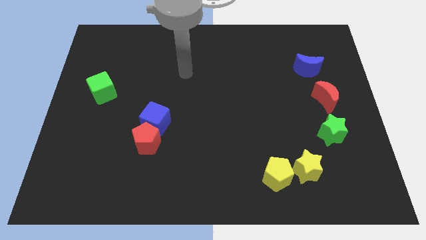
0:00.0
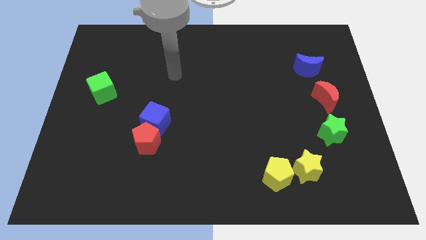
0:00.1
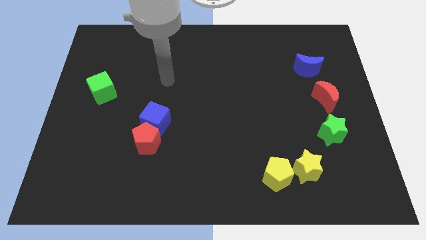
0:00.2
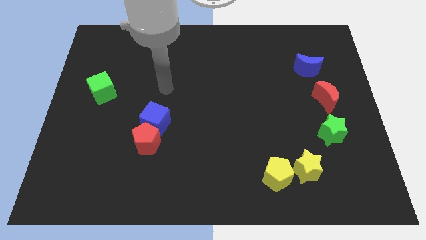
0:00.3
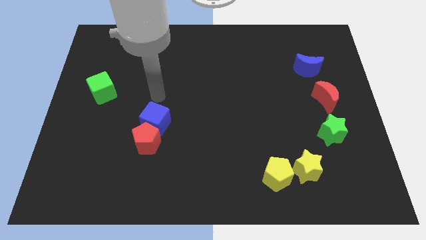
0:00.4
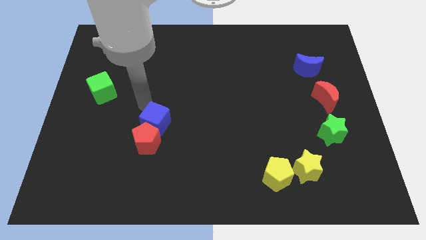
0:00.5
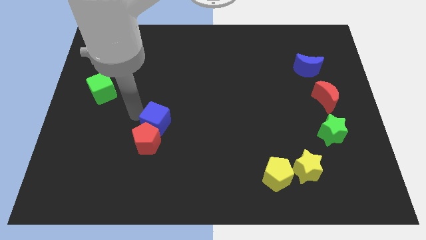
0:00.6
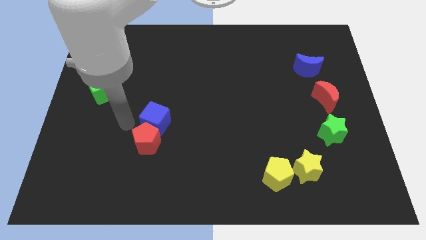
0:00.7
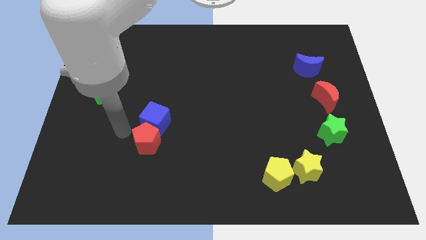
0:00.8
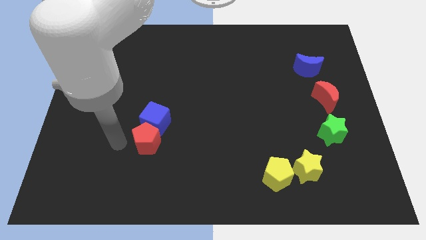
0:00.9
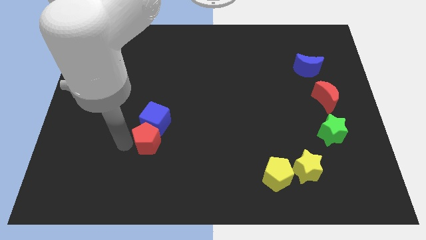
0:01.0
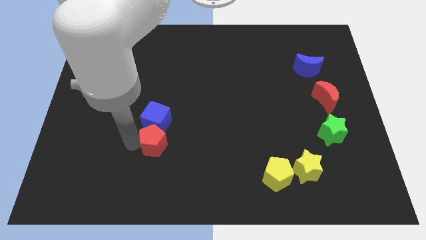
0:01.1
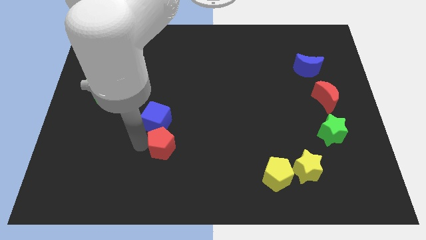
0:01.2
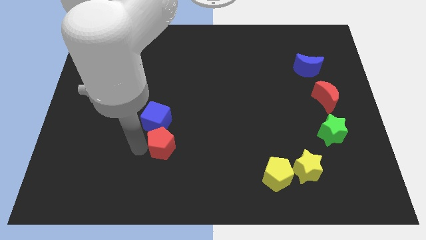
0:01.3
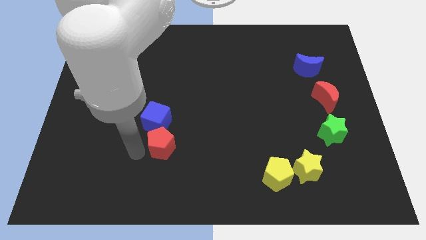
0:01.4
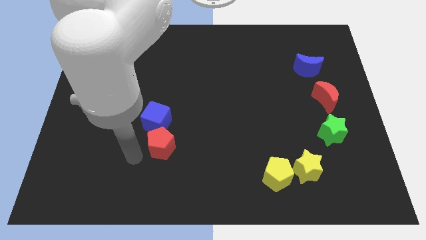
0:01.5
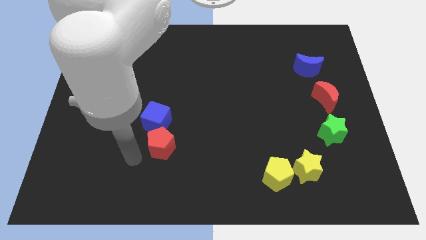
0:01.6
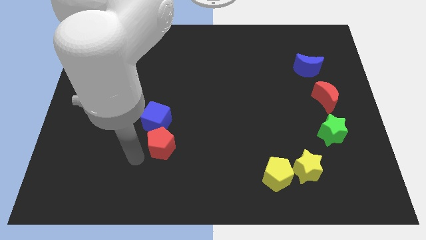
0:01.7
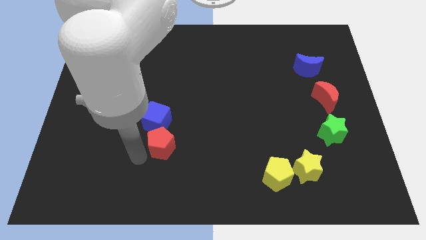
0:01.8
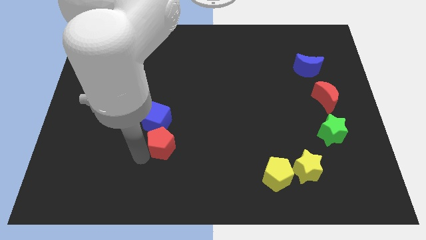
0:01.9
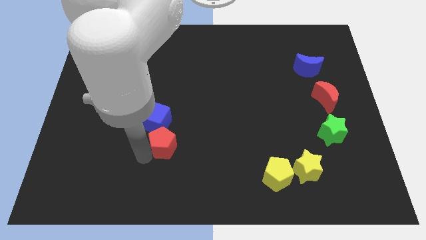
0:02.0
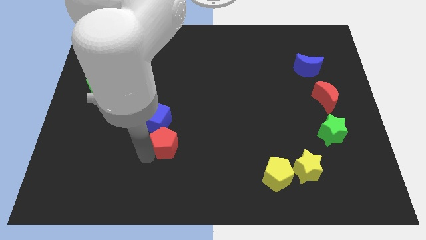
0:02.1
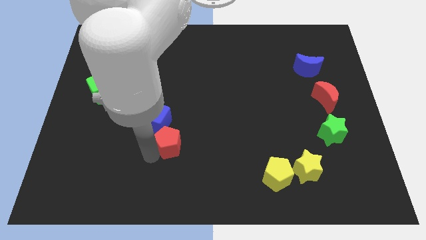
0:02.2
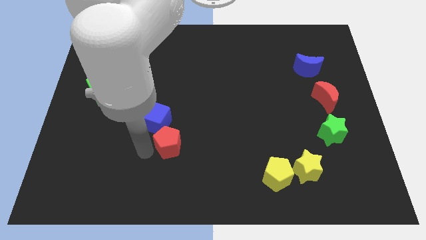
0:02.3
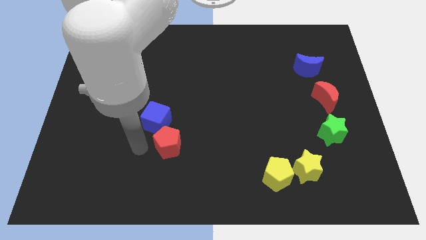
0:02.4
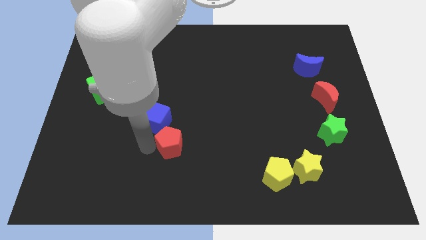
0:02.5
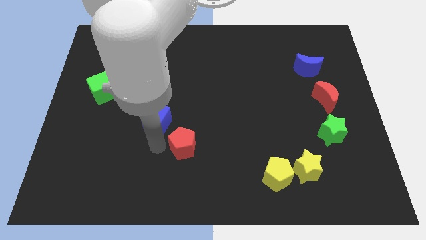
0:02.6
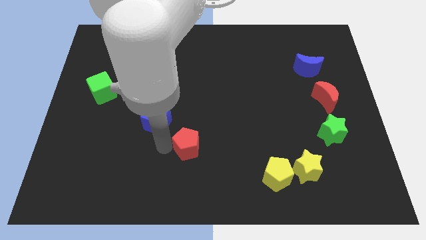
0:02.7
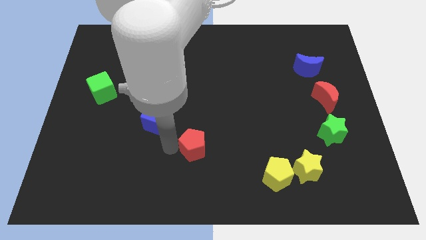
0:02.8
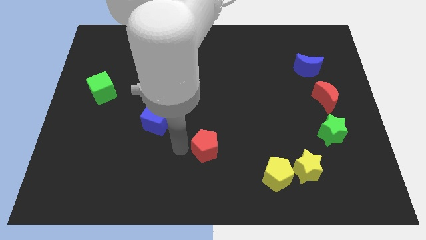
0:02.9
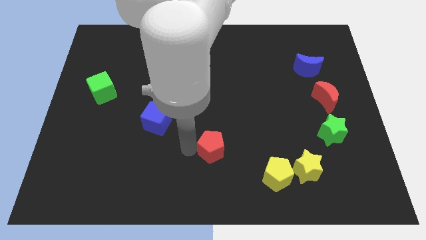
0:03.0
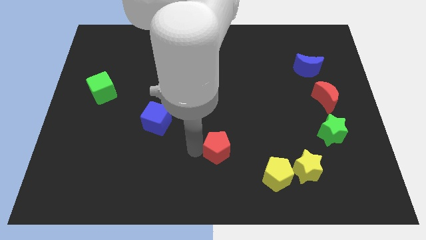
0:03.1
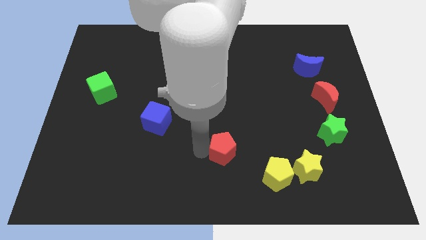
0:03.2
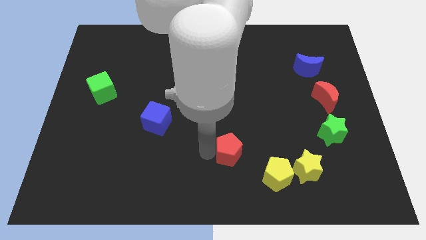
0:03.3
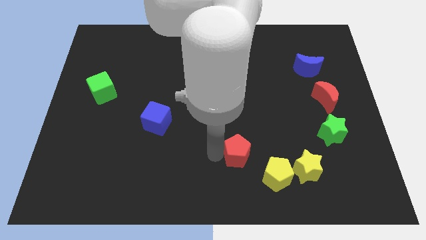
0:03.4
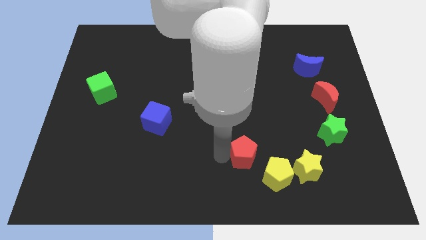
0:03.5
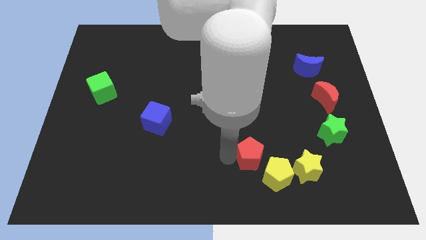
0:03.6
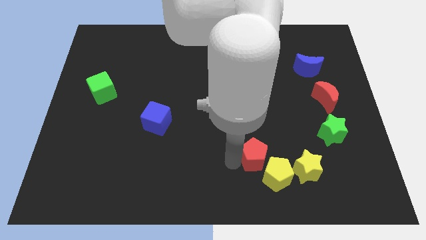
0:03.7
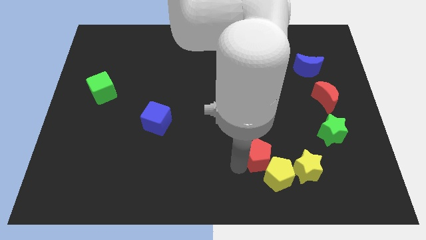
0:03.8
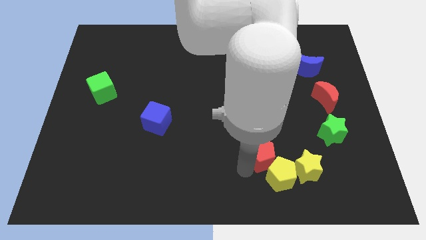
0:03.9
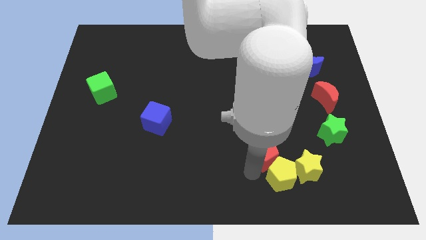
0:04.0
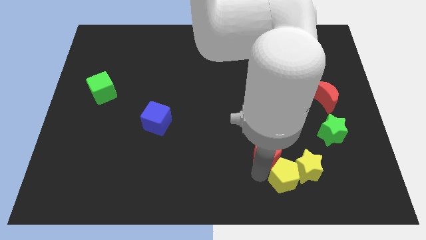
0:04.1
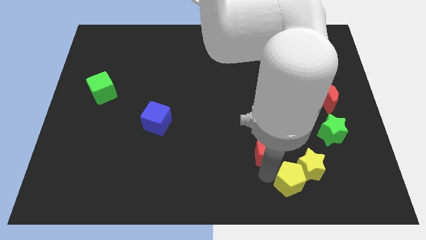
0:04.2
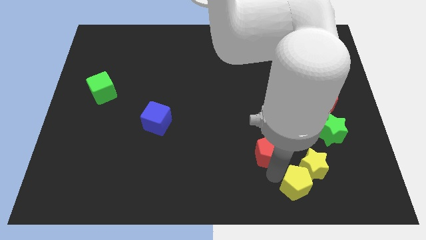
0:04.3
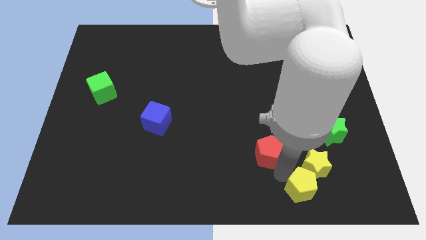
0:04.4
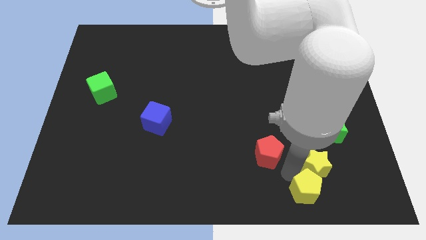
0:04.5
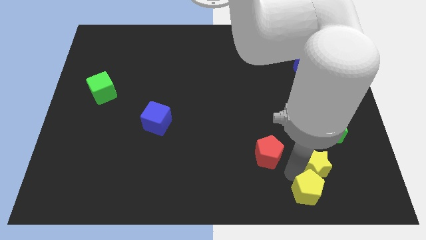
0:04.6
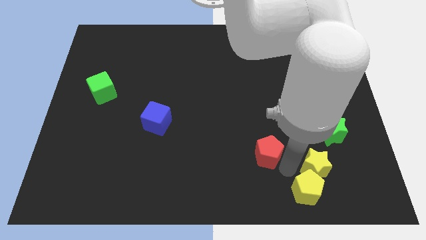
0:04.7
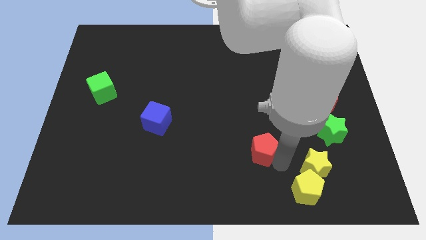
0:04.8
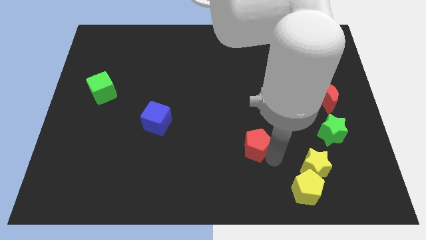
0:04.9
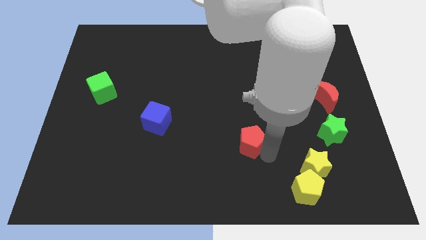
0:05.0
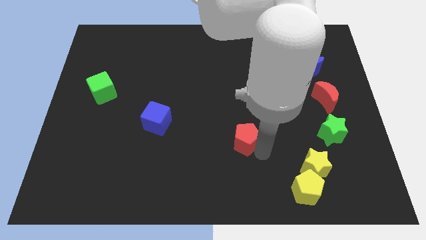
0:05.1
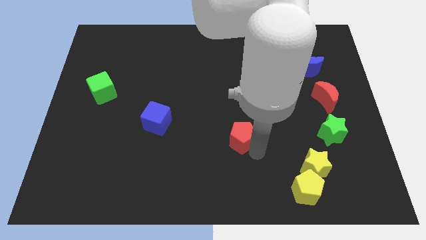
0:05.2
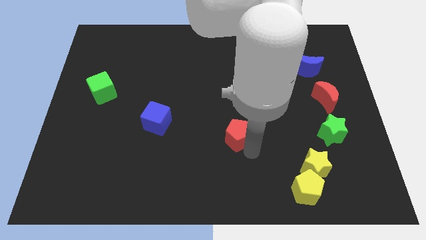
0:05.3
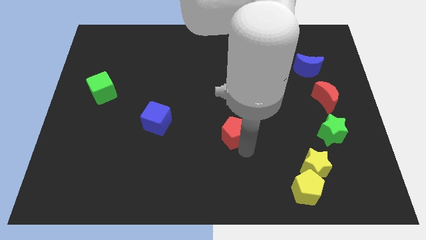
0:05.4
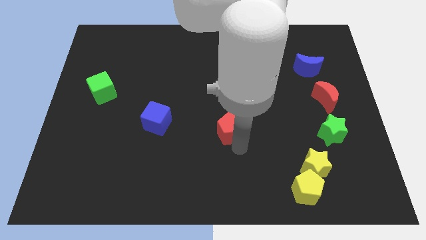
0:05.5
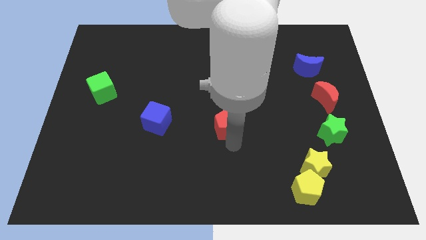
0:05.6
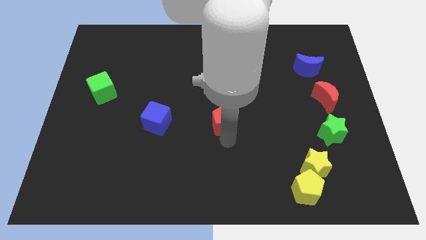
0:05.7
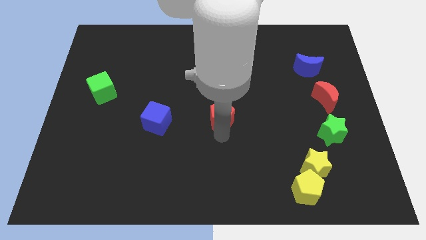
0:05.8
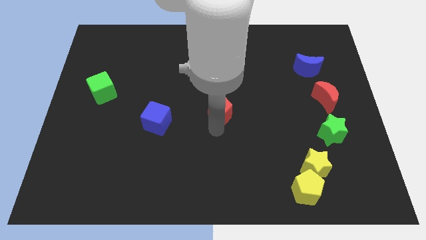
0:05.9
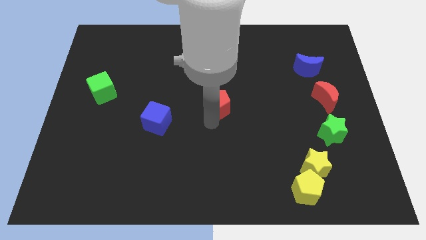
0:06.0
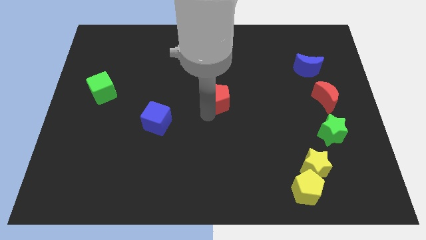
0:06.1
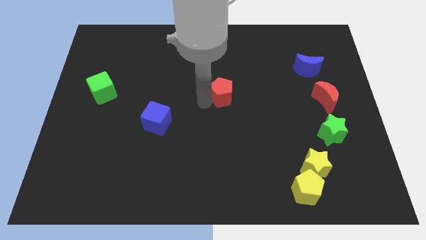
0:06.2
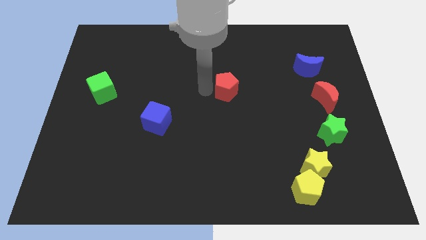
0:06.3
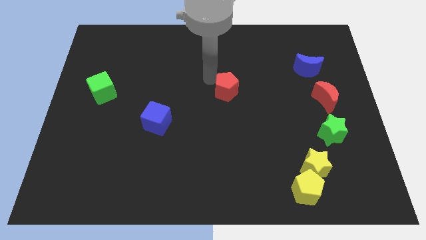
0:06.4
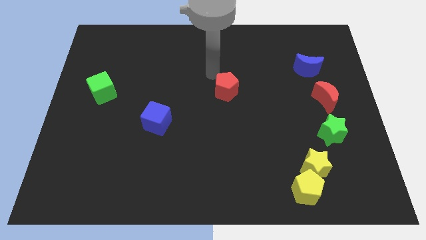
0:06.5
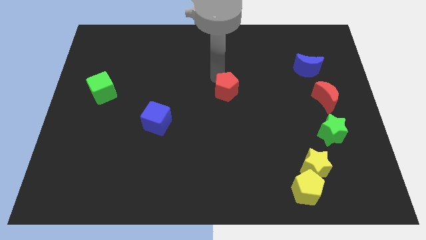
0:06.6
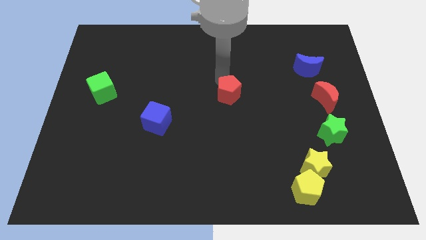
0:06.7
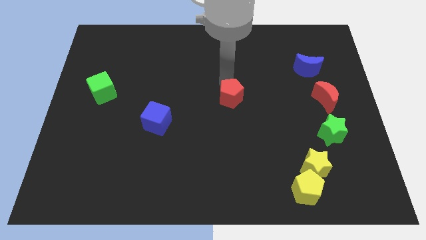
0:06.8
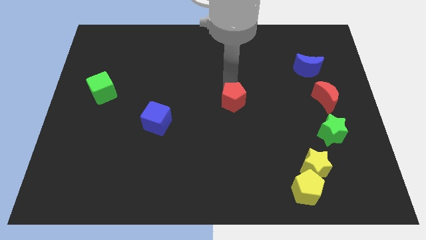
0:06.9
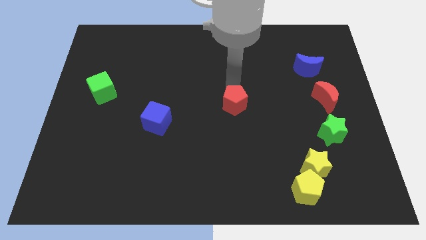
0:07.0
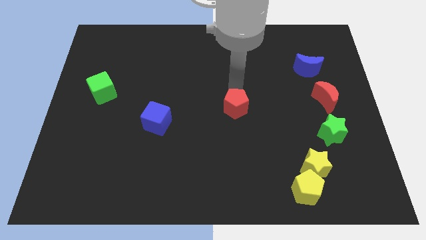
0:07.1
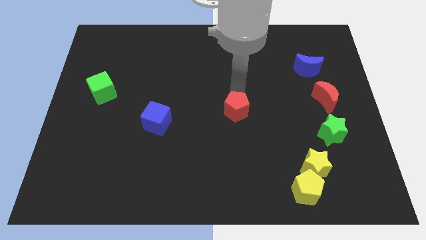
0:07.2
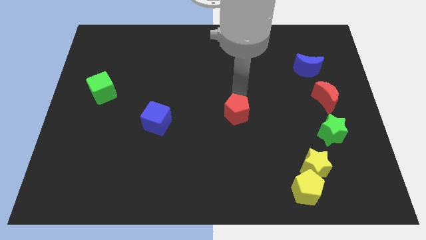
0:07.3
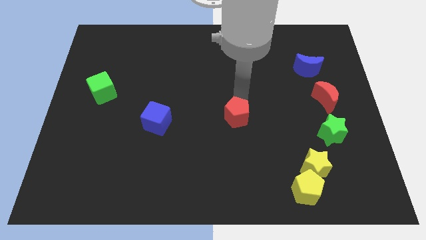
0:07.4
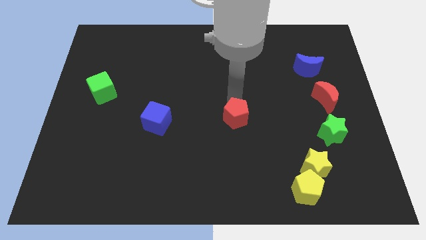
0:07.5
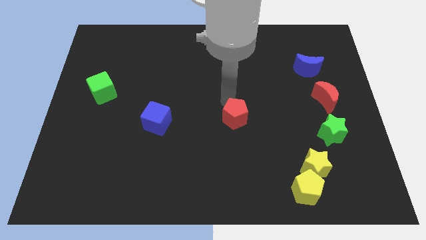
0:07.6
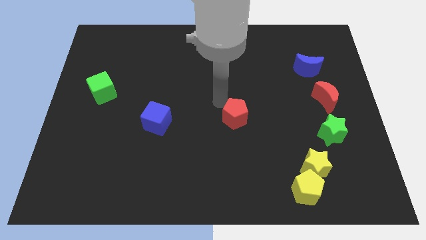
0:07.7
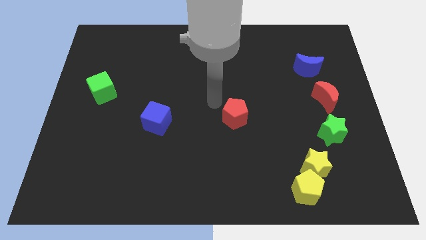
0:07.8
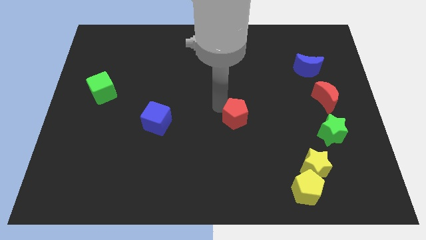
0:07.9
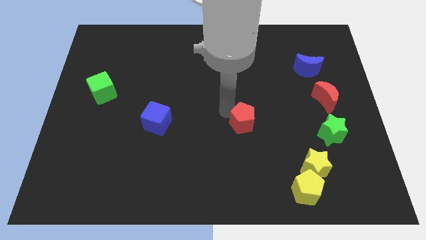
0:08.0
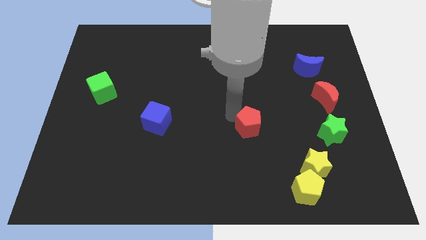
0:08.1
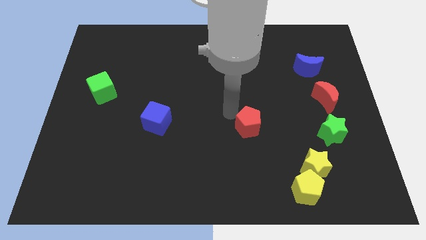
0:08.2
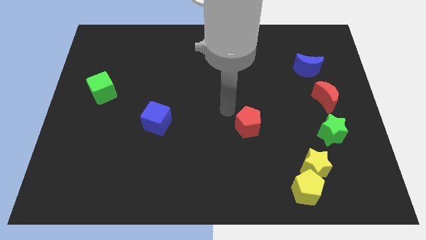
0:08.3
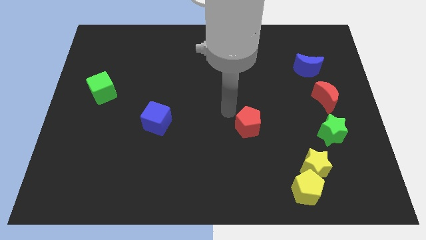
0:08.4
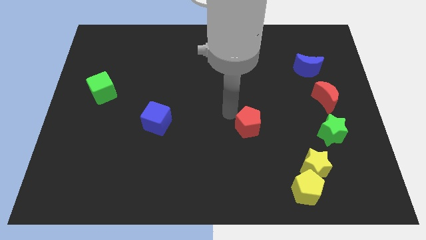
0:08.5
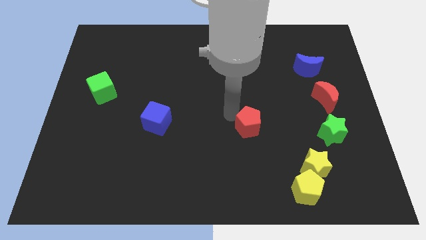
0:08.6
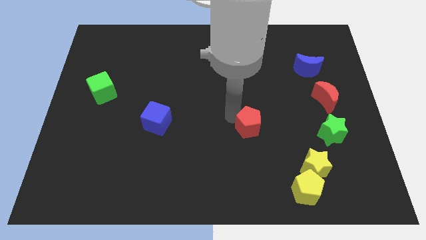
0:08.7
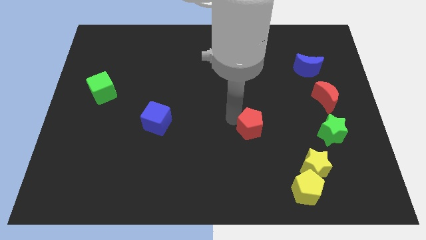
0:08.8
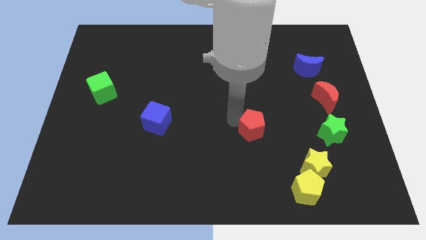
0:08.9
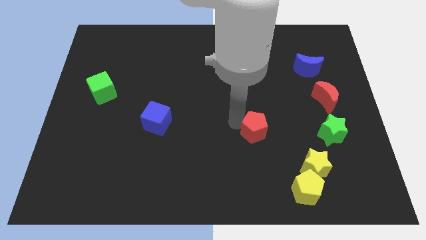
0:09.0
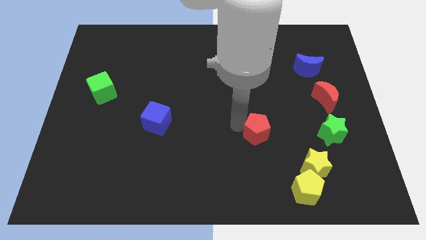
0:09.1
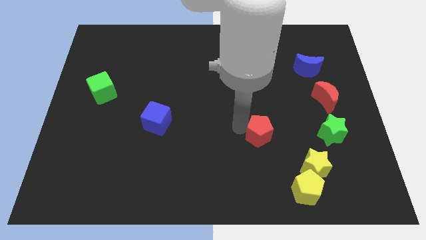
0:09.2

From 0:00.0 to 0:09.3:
put the red pentagon just left of the green star
